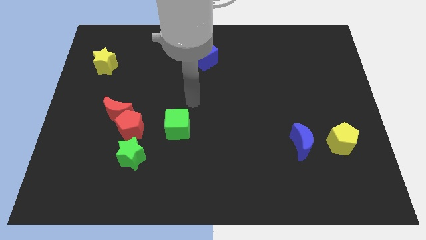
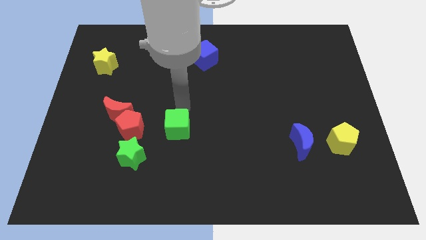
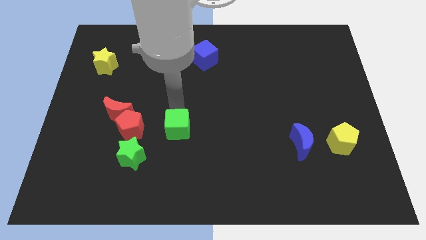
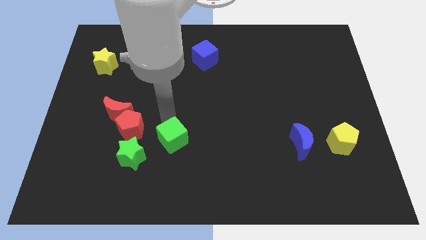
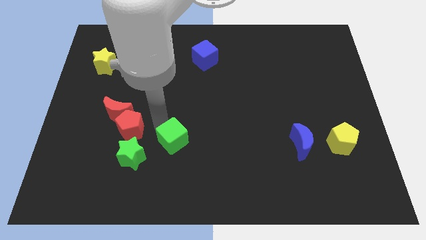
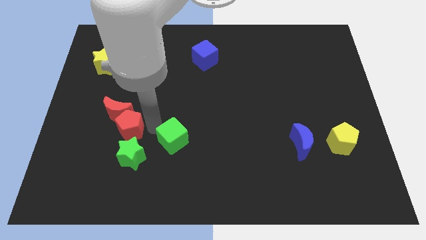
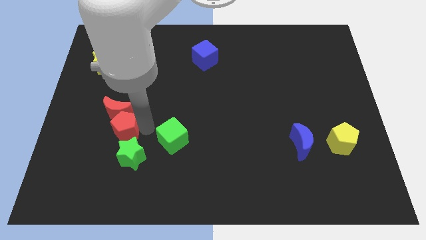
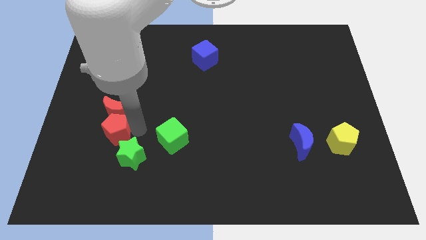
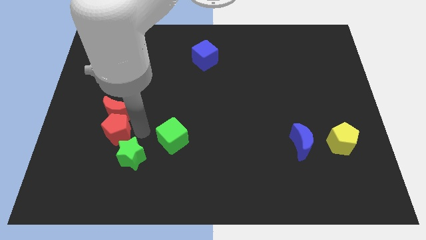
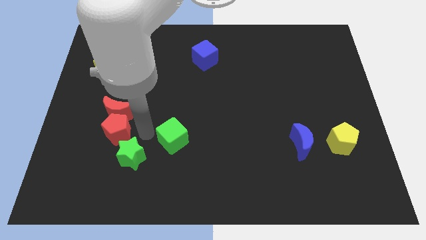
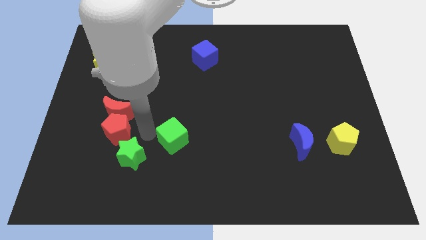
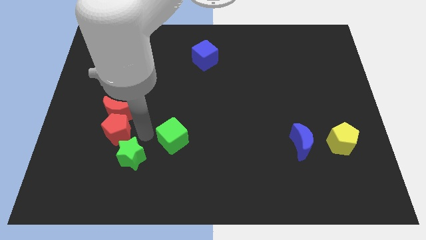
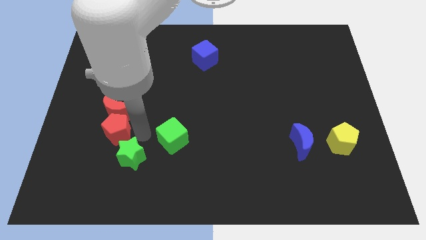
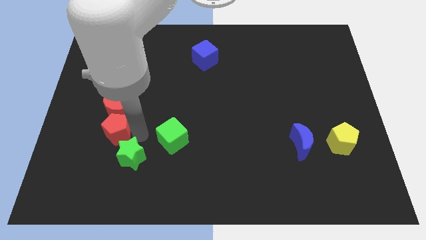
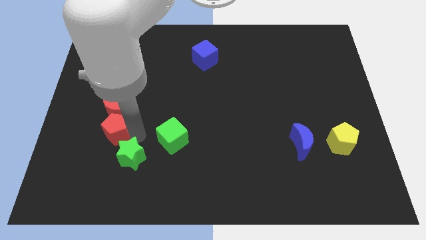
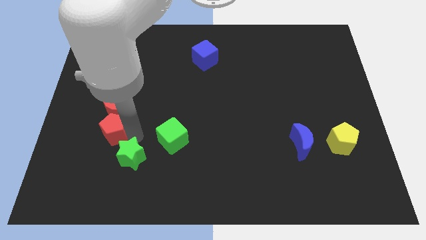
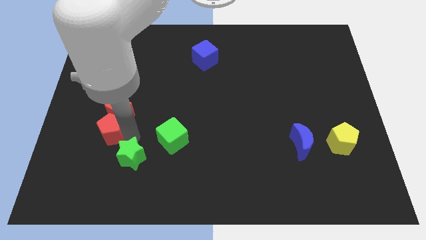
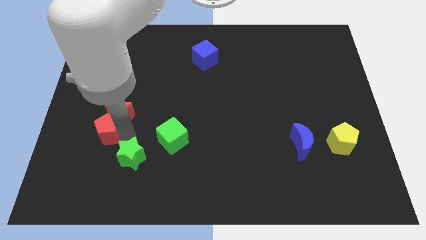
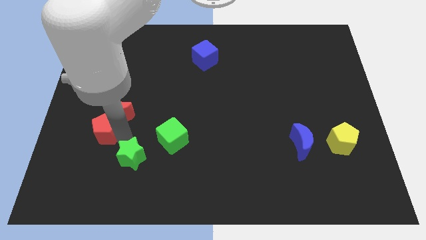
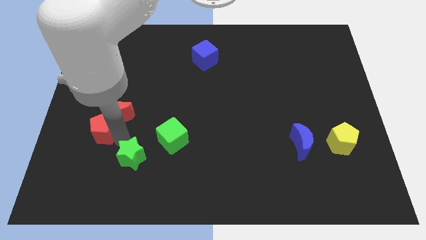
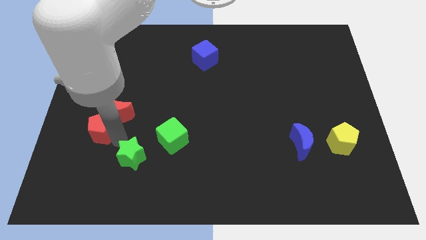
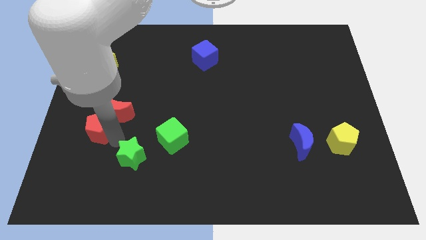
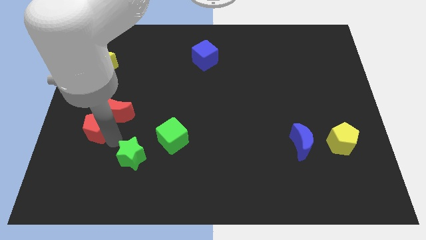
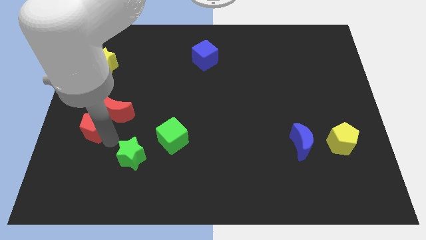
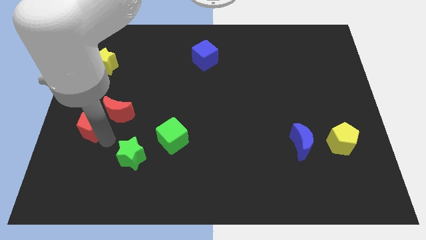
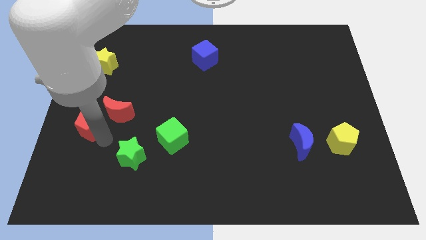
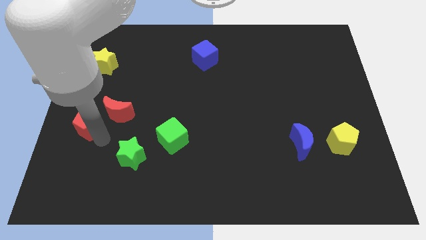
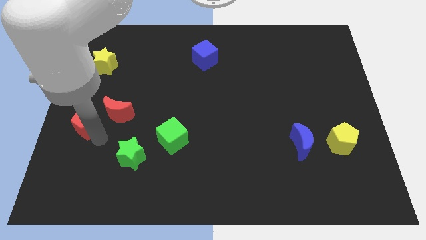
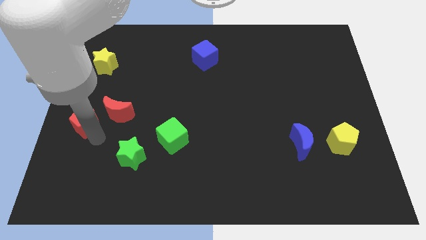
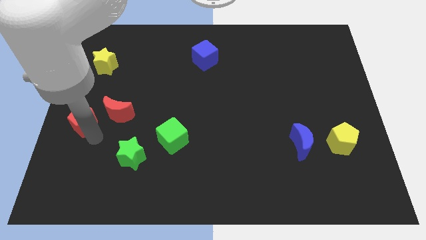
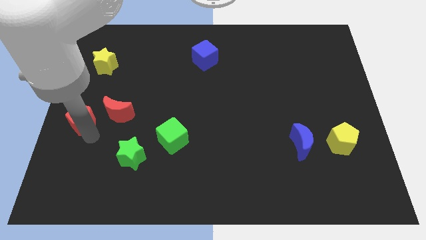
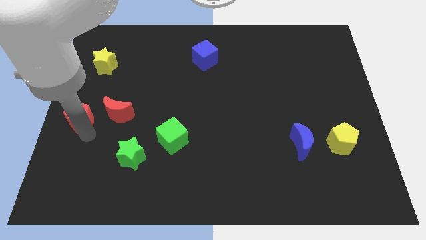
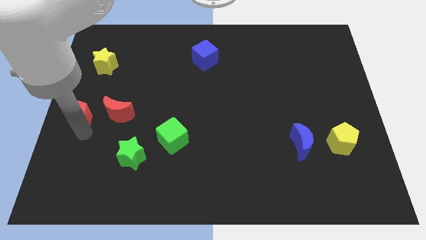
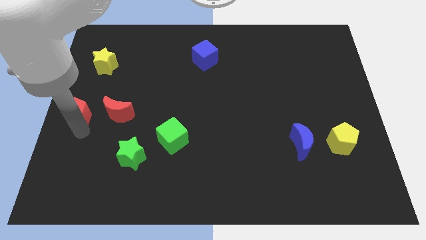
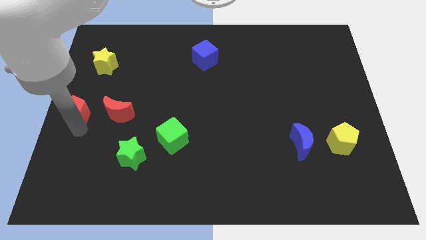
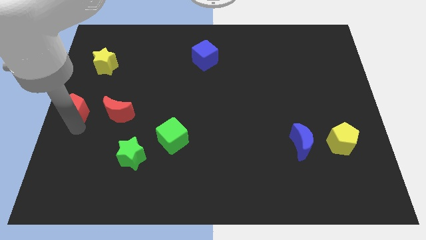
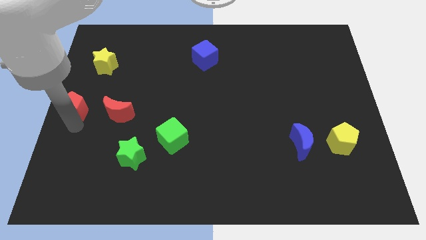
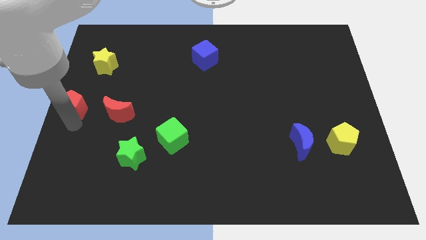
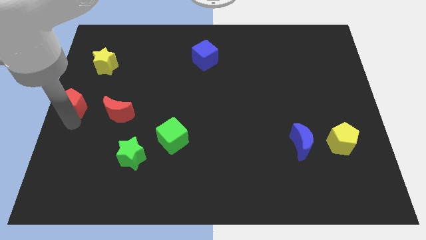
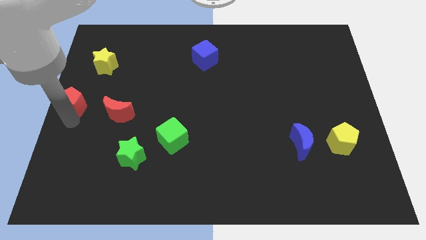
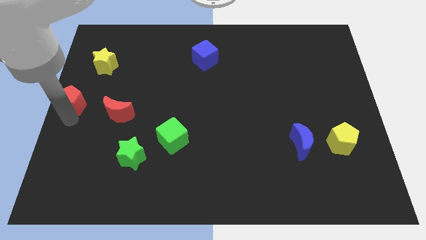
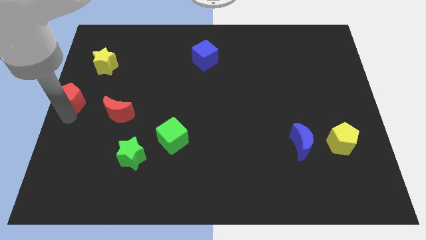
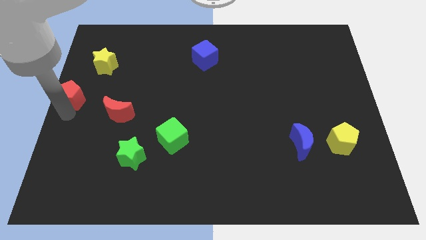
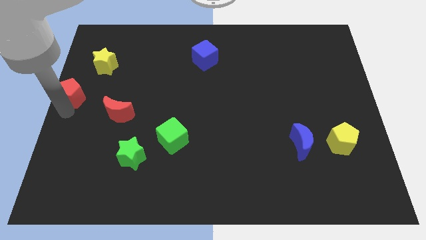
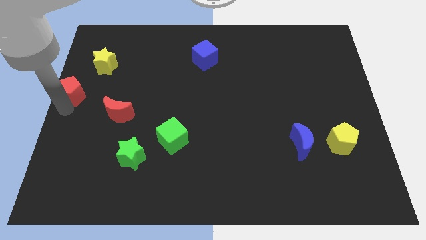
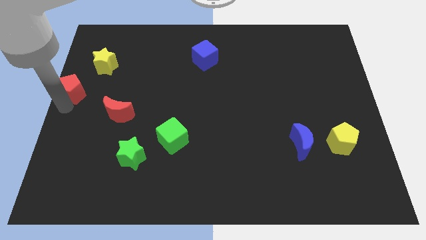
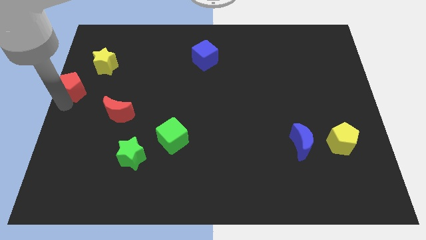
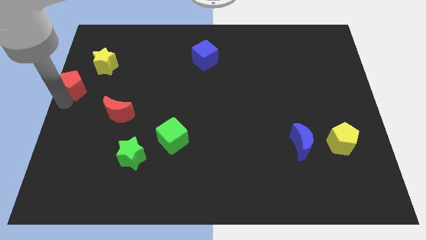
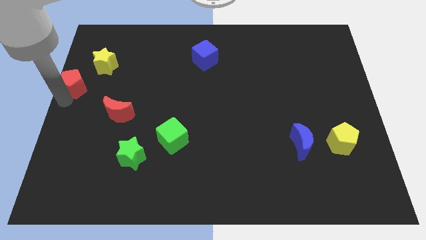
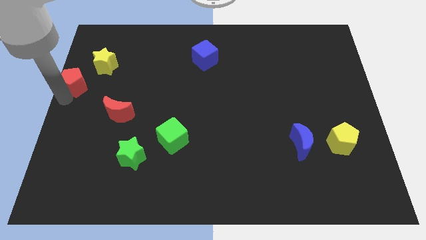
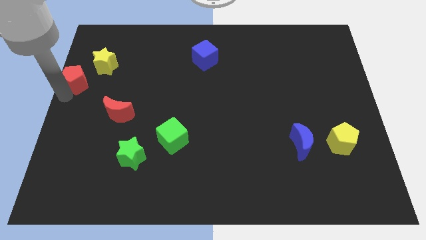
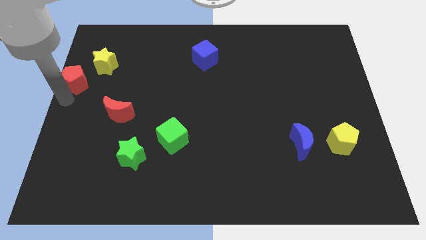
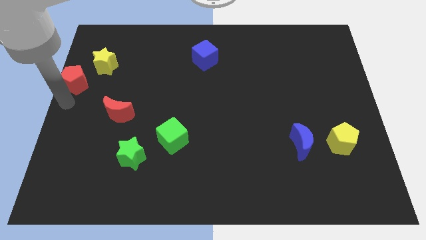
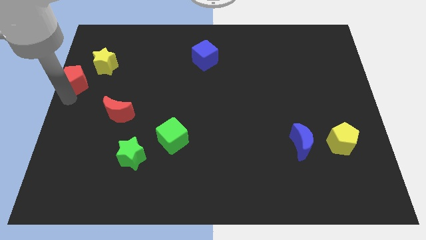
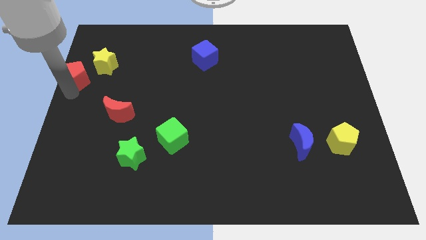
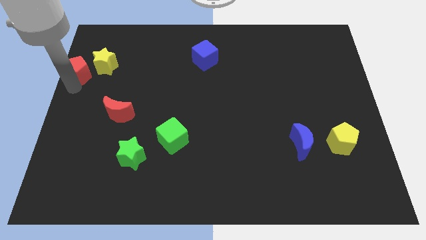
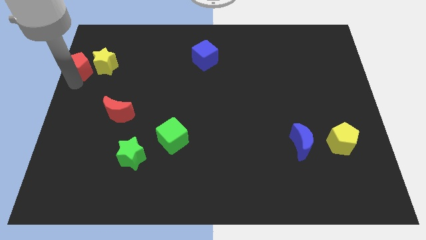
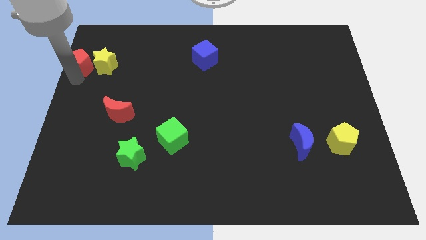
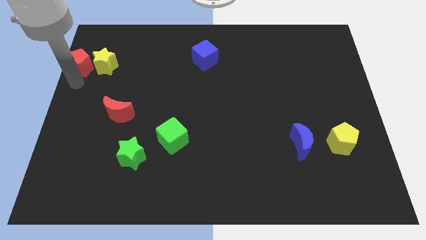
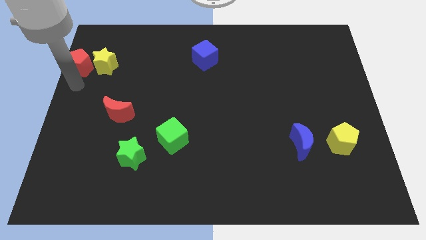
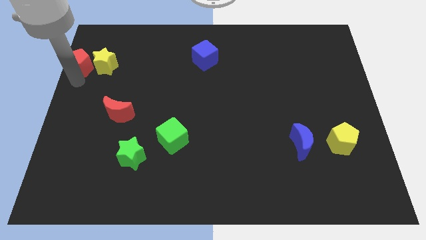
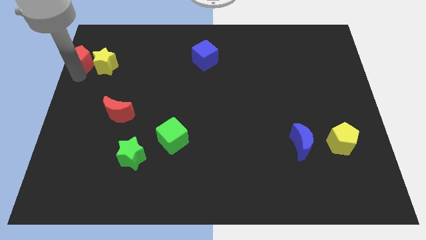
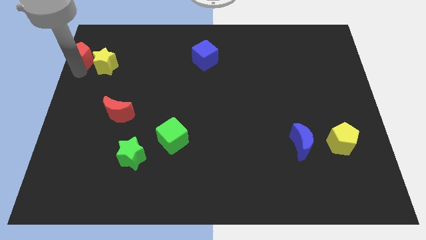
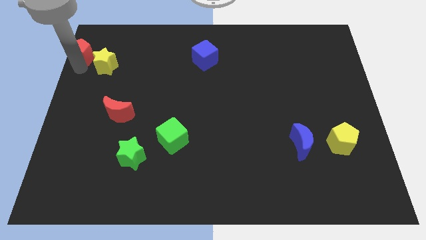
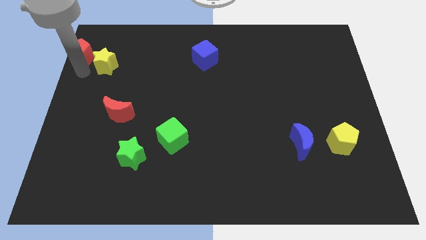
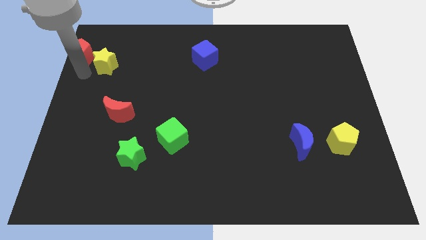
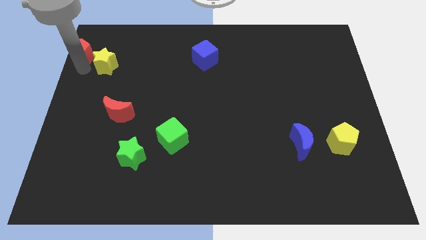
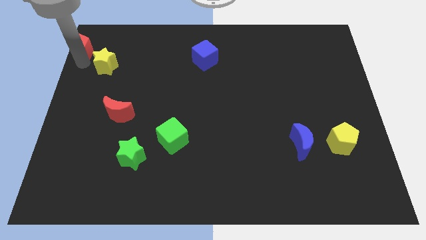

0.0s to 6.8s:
push the red pentagon to the top left
